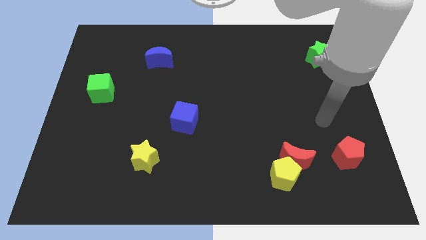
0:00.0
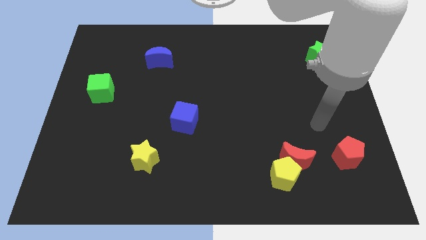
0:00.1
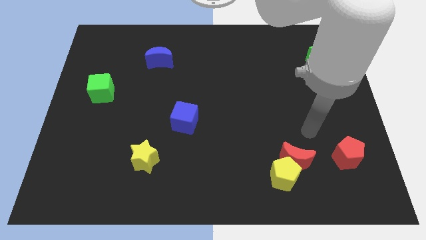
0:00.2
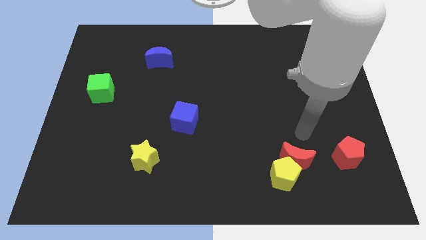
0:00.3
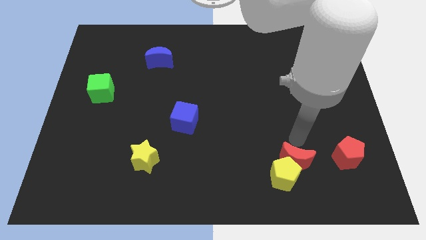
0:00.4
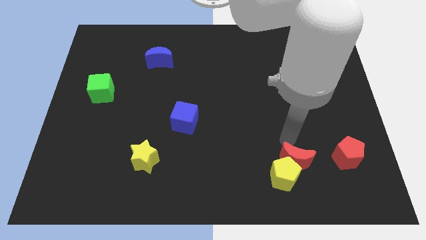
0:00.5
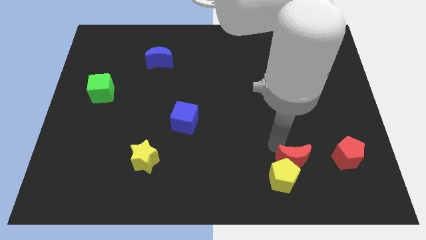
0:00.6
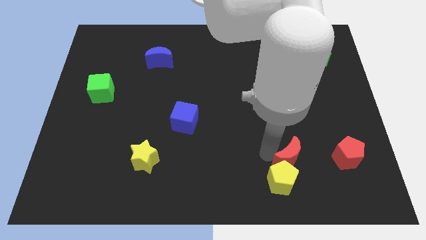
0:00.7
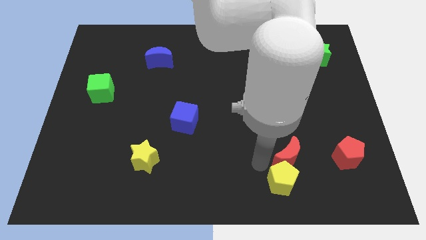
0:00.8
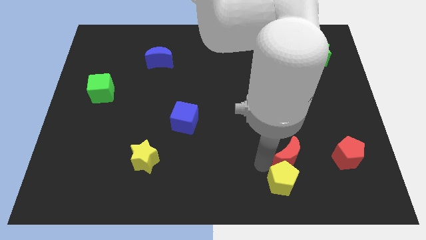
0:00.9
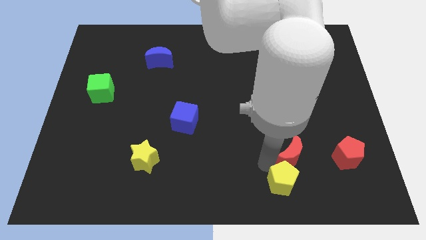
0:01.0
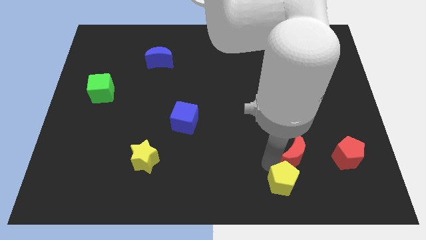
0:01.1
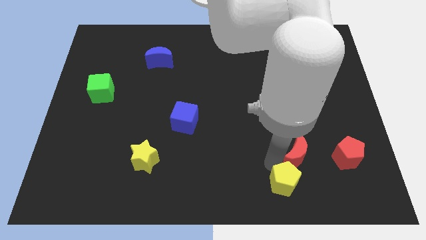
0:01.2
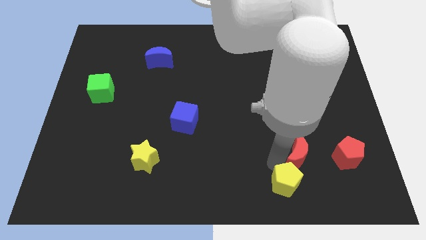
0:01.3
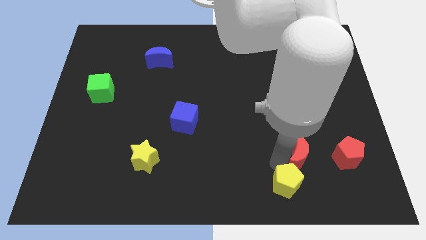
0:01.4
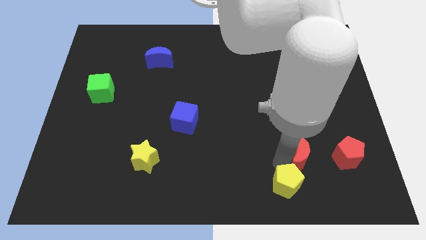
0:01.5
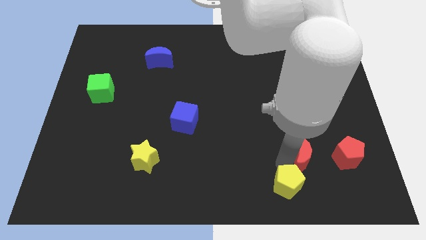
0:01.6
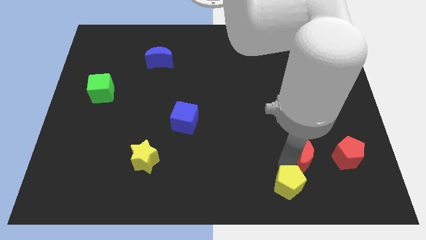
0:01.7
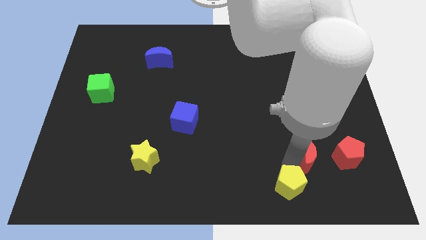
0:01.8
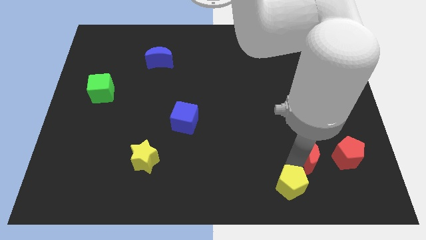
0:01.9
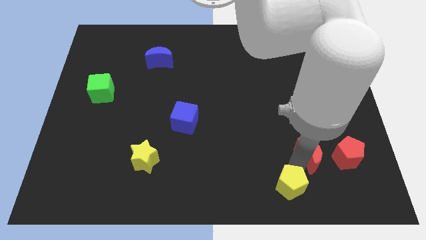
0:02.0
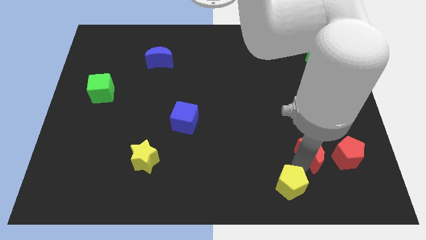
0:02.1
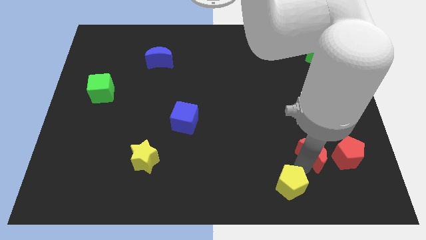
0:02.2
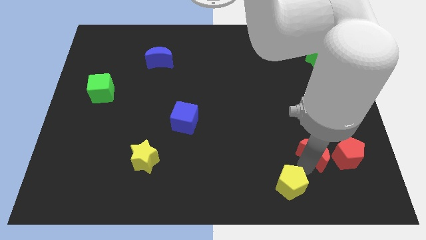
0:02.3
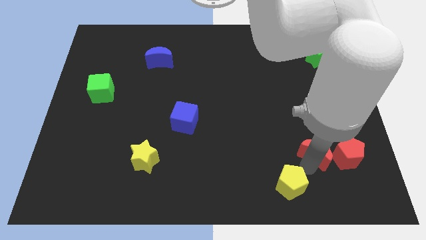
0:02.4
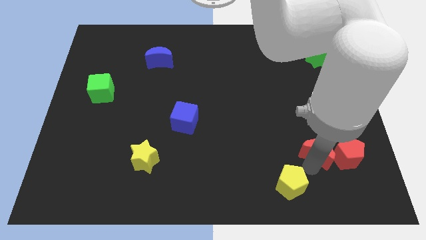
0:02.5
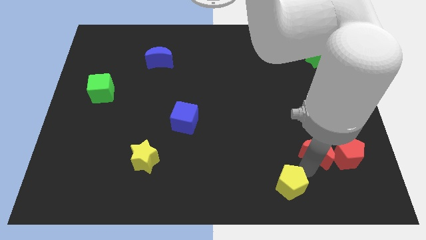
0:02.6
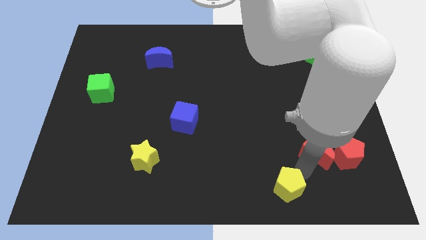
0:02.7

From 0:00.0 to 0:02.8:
pull the red moon apart from the yellow pentagon

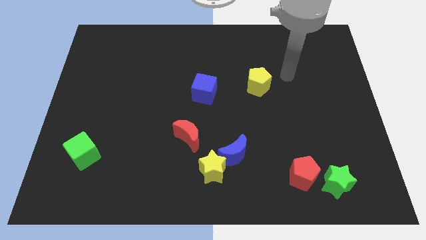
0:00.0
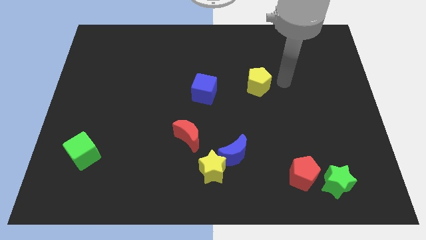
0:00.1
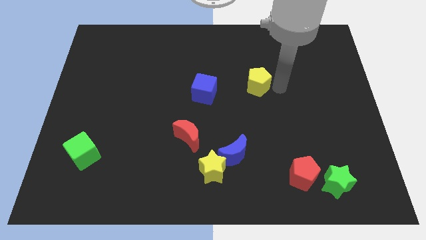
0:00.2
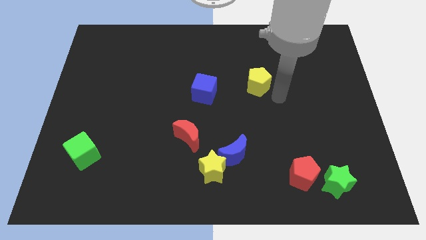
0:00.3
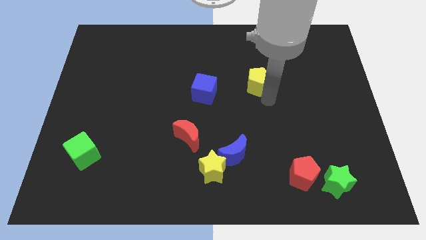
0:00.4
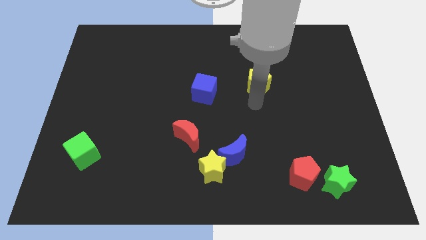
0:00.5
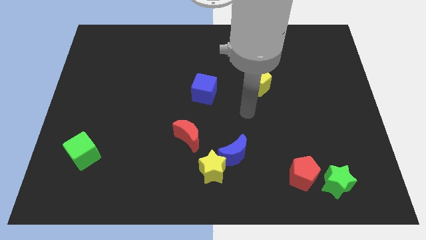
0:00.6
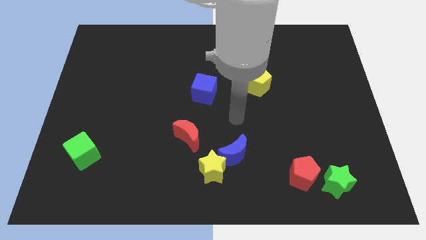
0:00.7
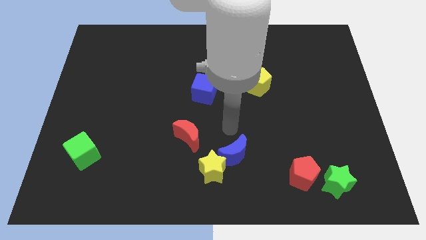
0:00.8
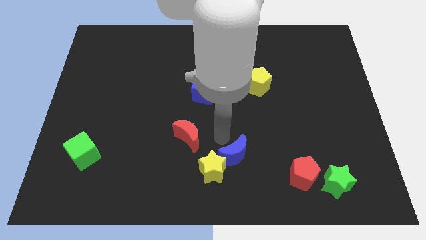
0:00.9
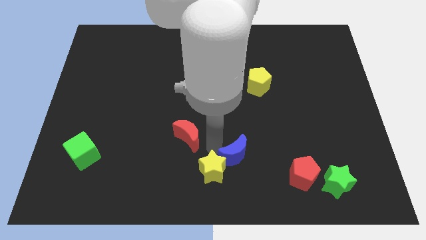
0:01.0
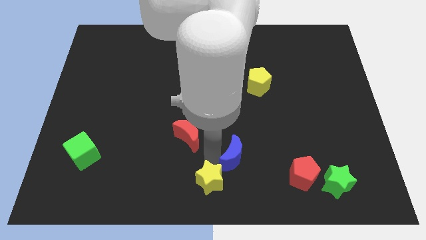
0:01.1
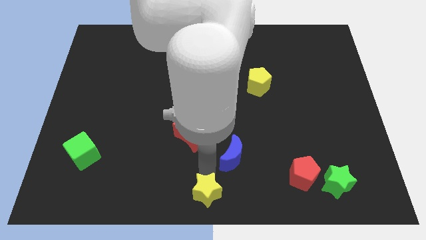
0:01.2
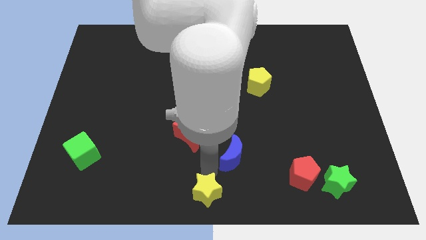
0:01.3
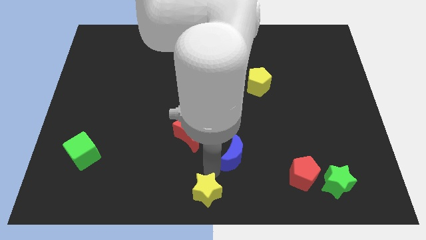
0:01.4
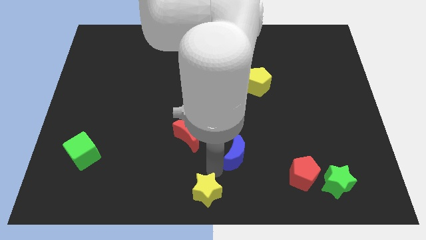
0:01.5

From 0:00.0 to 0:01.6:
pull the blue moon apart from the yellow star

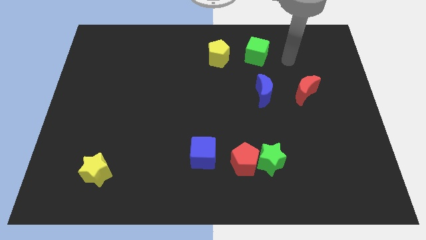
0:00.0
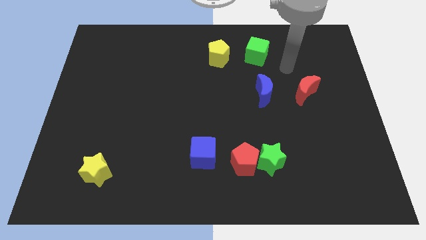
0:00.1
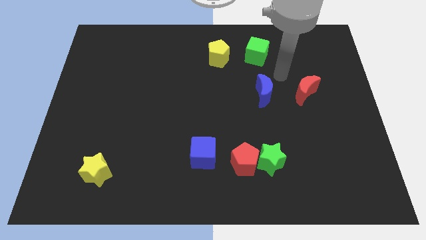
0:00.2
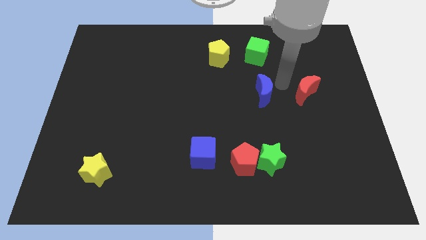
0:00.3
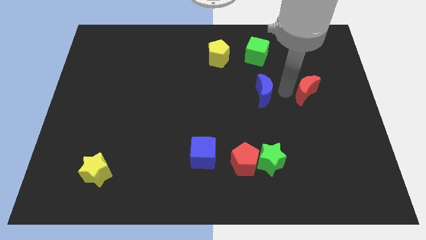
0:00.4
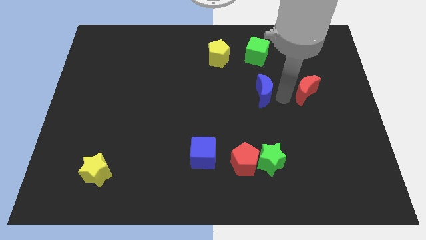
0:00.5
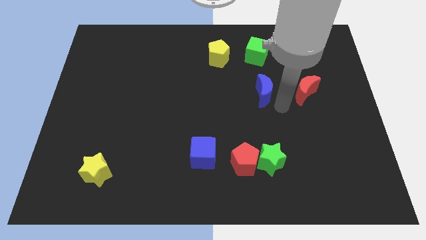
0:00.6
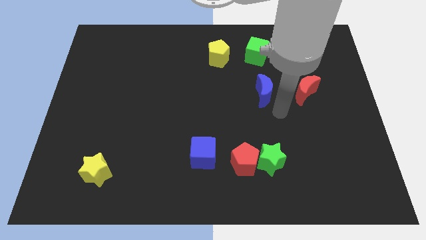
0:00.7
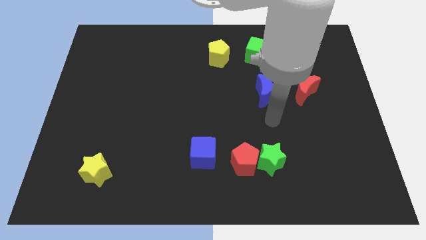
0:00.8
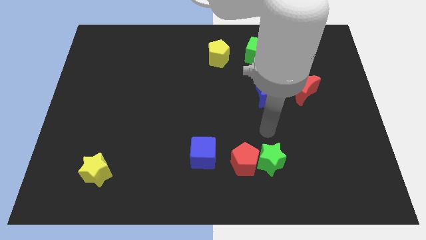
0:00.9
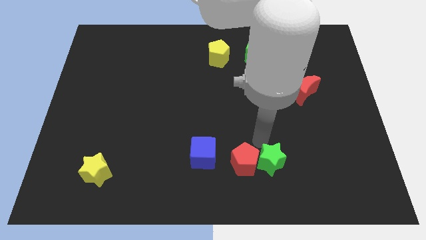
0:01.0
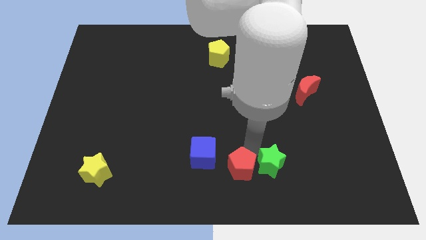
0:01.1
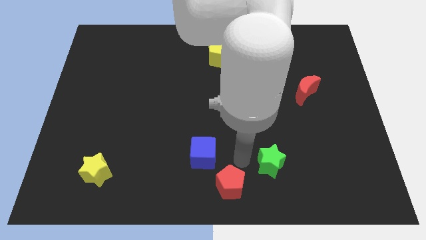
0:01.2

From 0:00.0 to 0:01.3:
pull the green star apart from the red pentagon

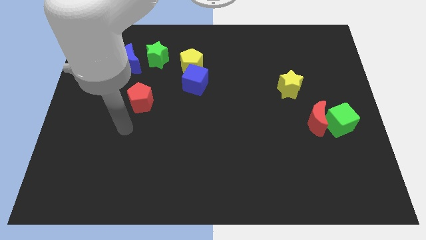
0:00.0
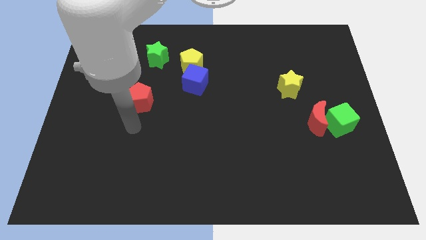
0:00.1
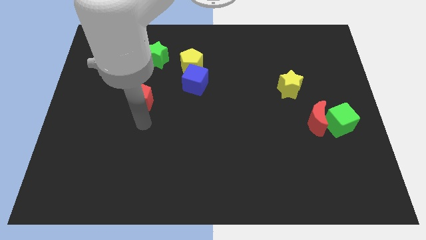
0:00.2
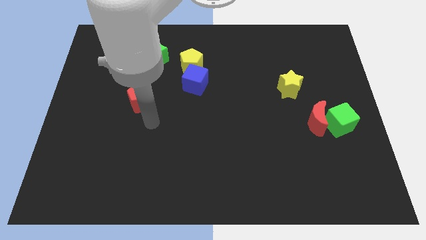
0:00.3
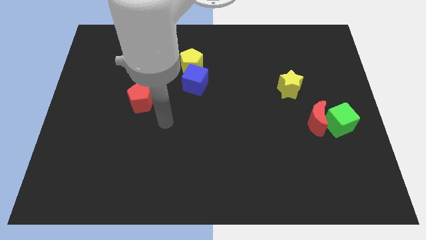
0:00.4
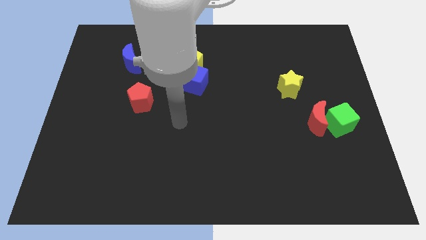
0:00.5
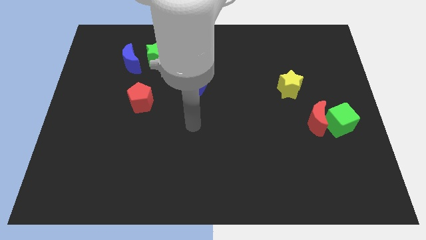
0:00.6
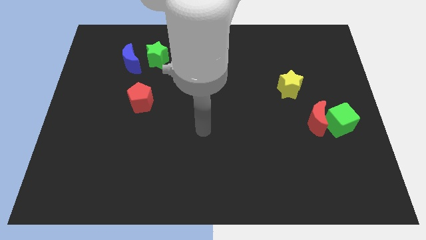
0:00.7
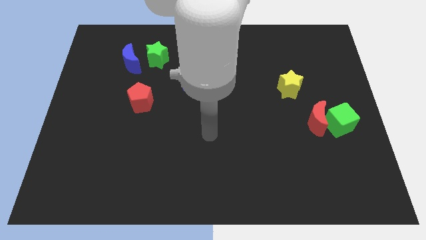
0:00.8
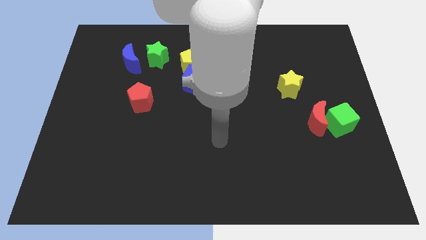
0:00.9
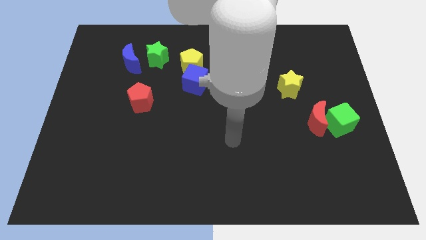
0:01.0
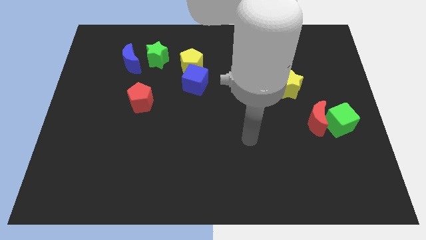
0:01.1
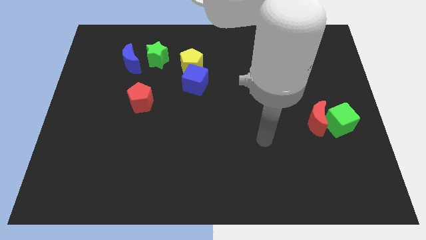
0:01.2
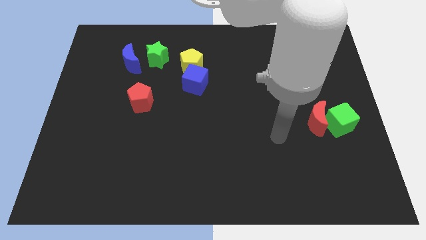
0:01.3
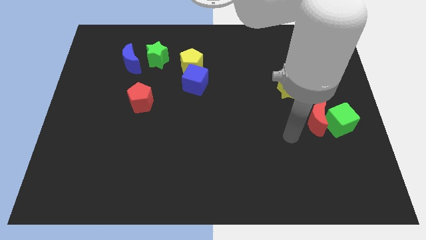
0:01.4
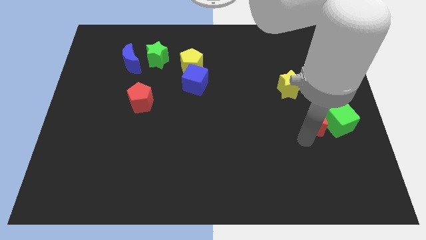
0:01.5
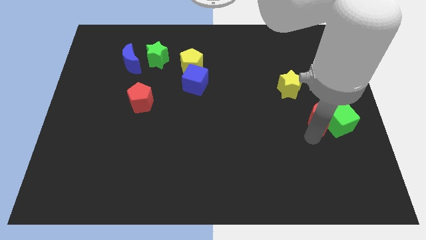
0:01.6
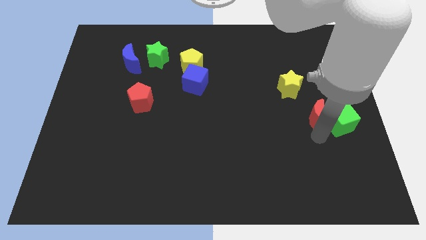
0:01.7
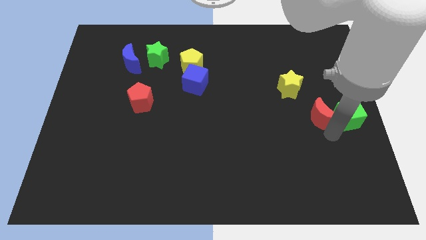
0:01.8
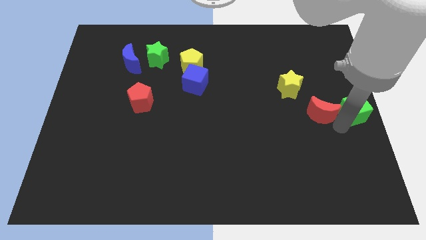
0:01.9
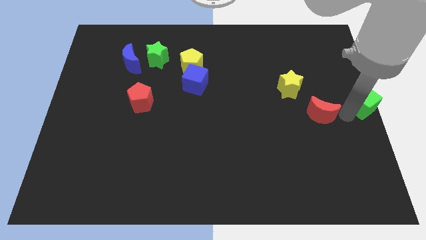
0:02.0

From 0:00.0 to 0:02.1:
separate the red moon from the green cube

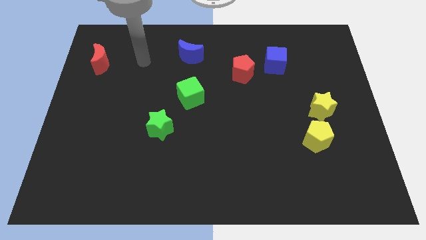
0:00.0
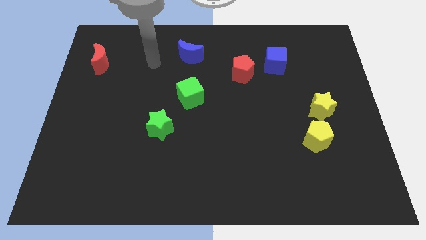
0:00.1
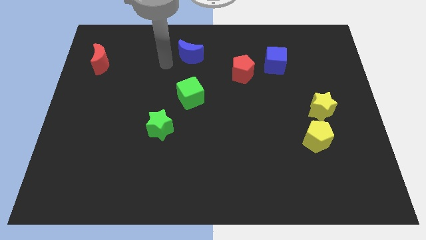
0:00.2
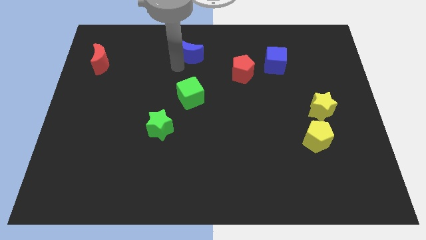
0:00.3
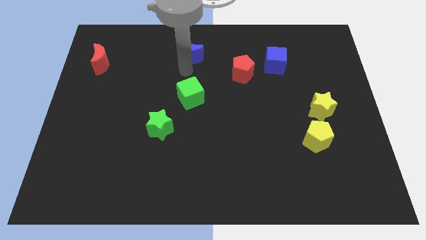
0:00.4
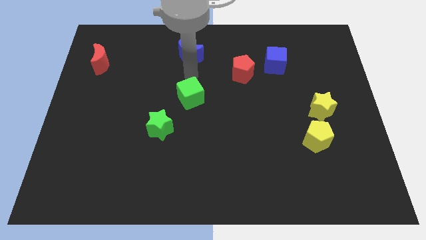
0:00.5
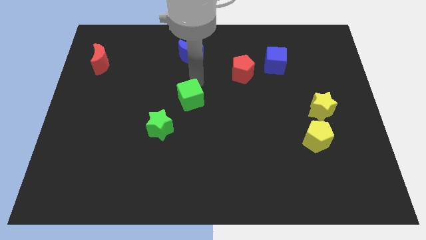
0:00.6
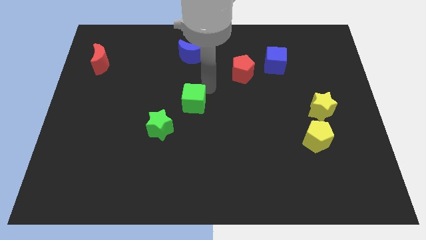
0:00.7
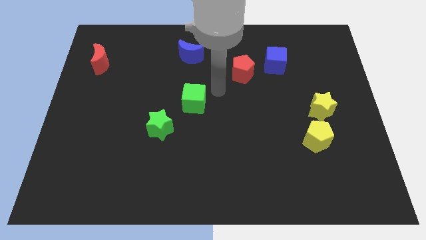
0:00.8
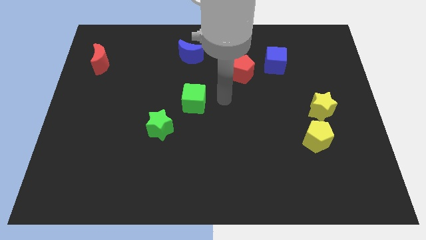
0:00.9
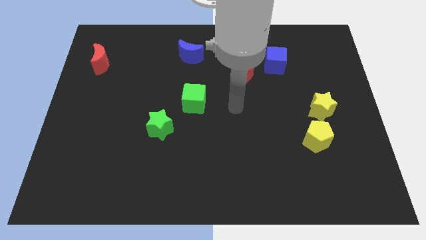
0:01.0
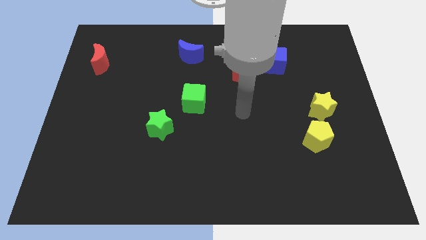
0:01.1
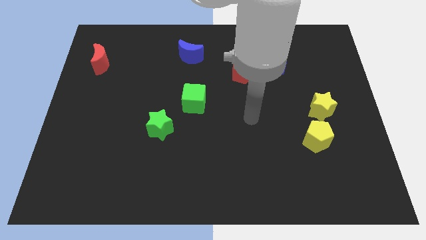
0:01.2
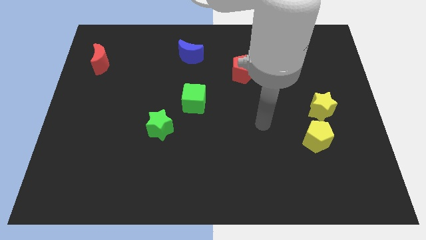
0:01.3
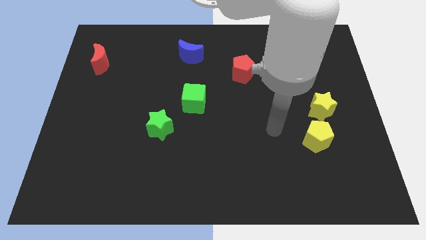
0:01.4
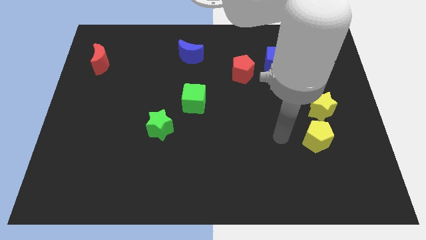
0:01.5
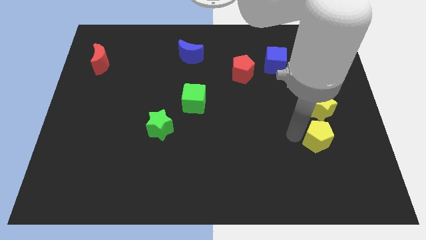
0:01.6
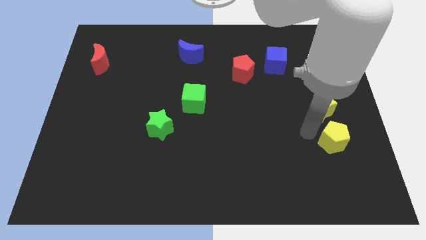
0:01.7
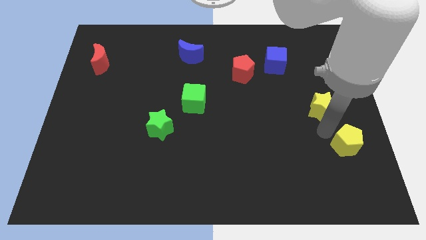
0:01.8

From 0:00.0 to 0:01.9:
pull the yellow star apart from the yellow pentagon
